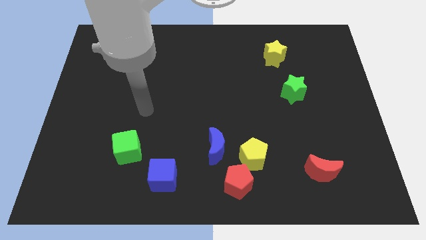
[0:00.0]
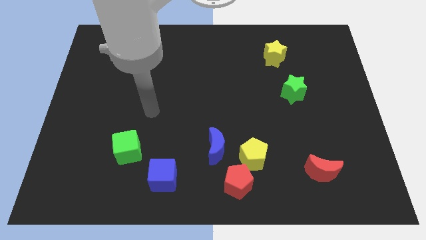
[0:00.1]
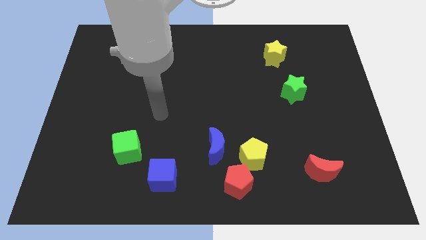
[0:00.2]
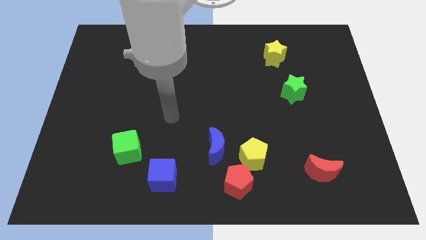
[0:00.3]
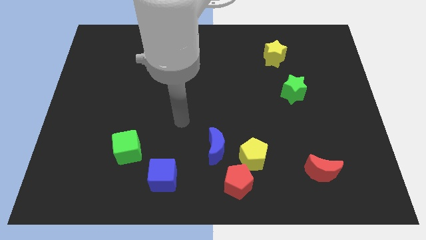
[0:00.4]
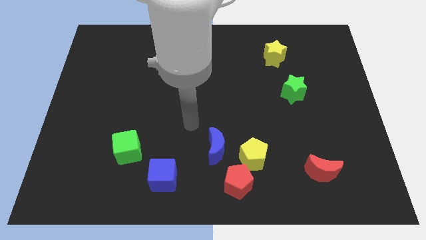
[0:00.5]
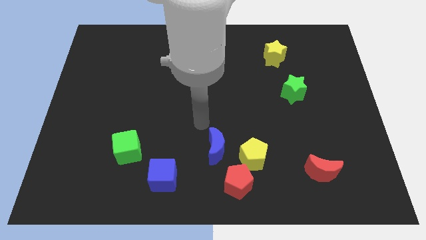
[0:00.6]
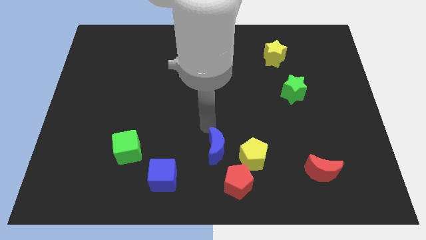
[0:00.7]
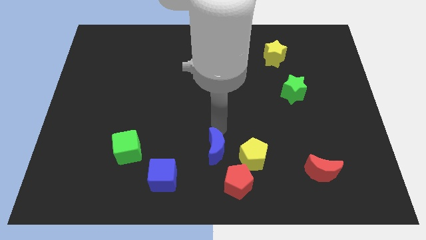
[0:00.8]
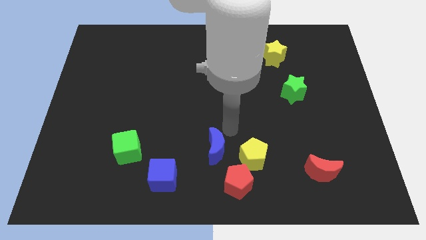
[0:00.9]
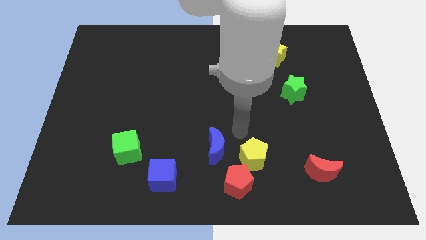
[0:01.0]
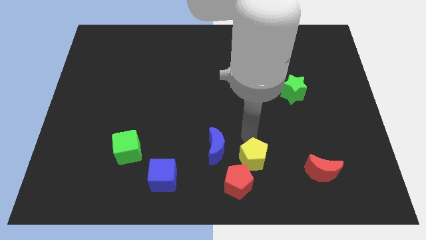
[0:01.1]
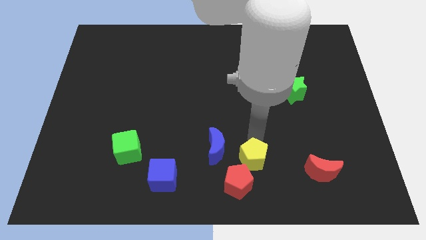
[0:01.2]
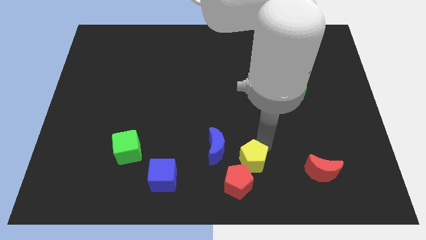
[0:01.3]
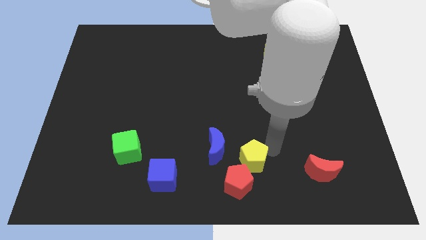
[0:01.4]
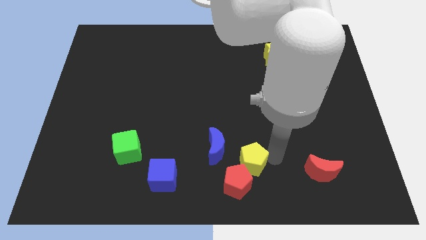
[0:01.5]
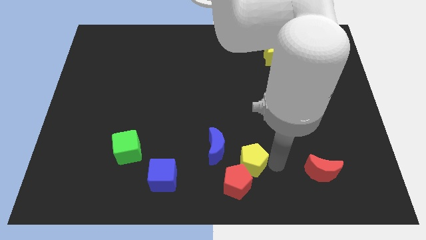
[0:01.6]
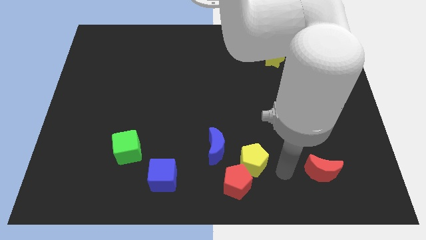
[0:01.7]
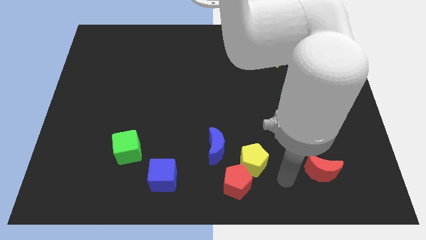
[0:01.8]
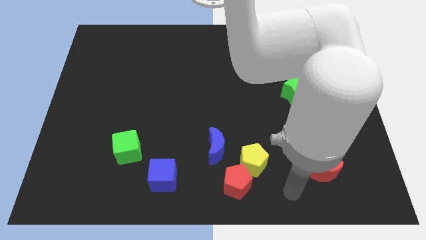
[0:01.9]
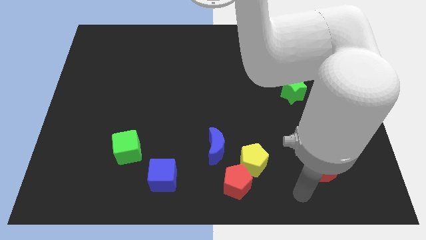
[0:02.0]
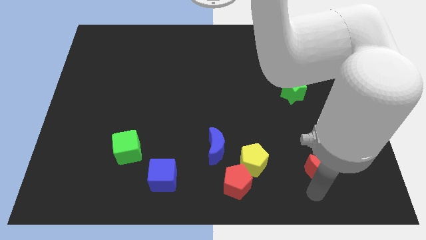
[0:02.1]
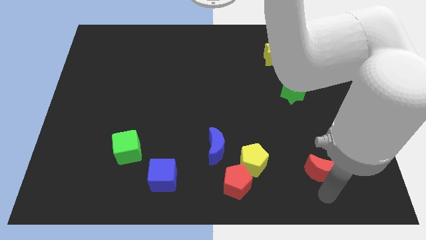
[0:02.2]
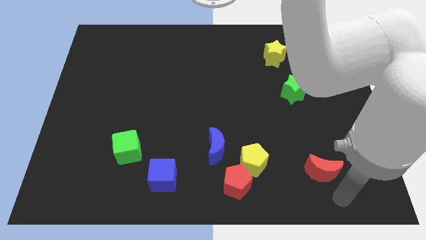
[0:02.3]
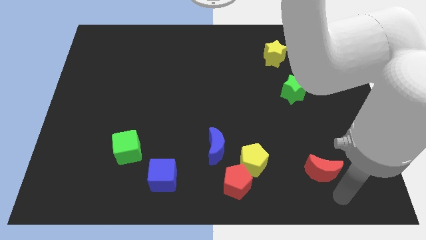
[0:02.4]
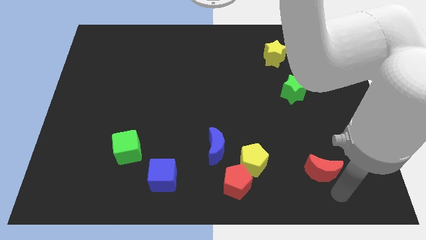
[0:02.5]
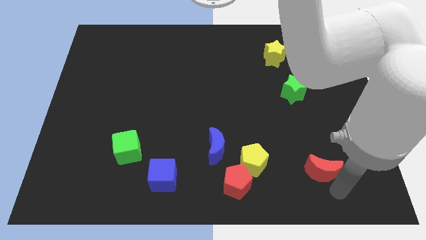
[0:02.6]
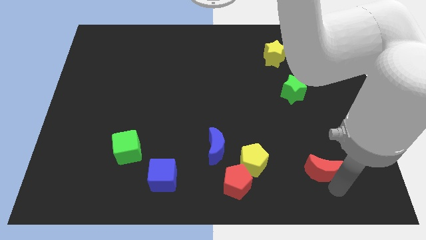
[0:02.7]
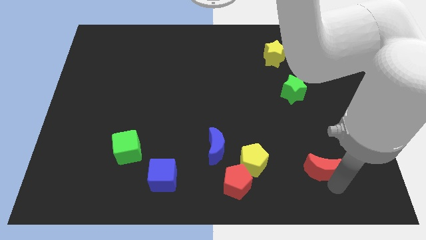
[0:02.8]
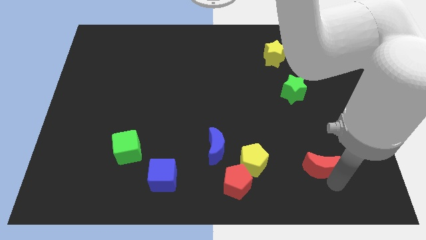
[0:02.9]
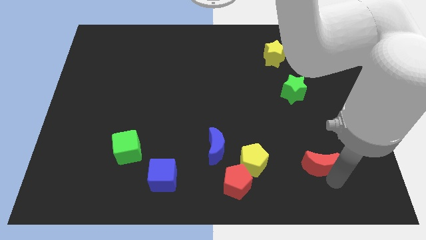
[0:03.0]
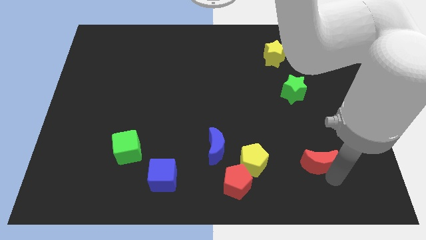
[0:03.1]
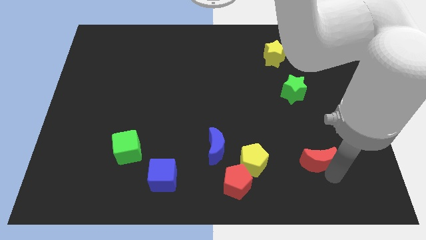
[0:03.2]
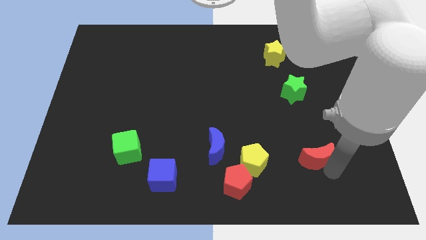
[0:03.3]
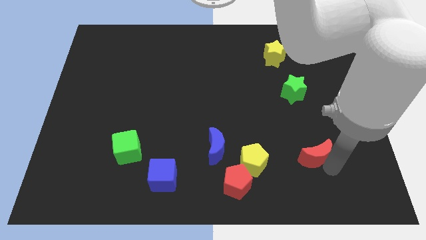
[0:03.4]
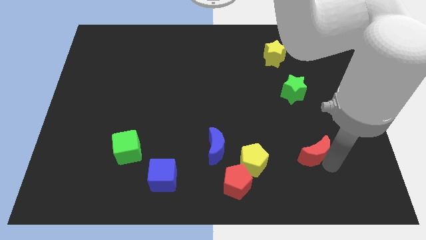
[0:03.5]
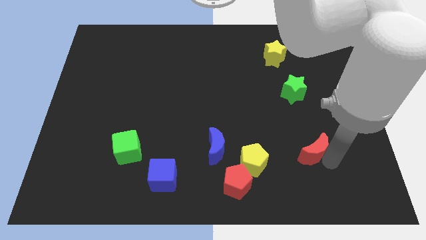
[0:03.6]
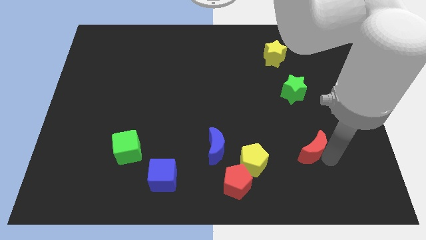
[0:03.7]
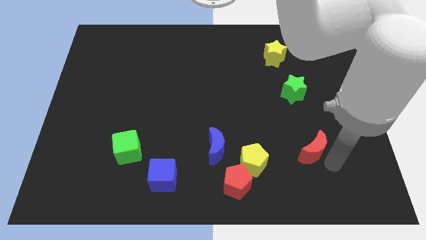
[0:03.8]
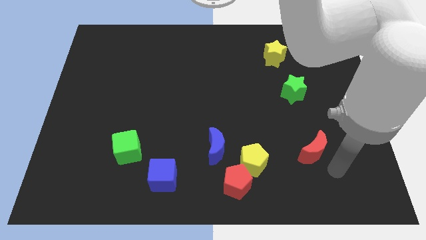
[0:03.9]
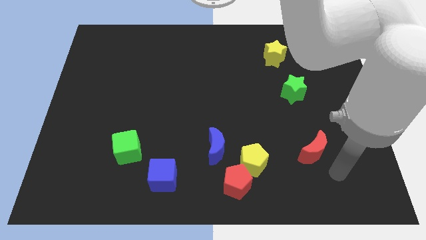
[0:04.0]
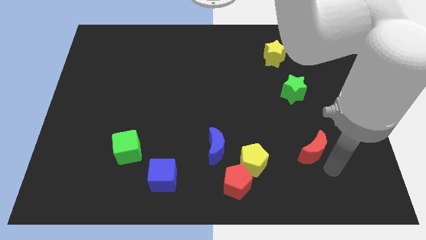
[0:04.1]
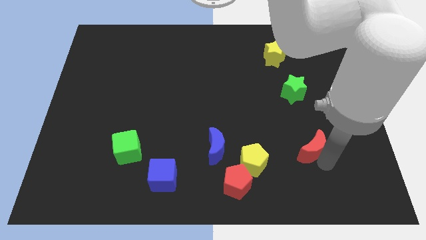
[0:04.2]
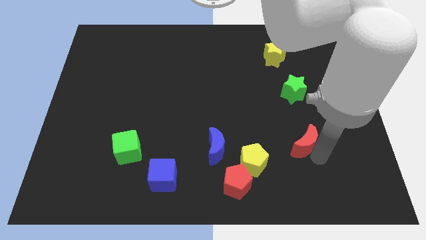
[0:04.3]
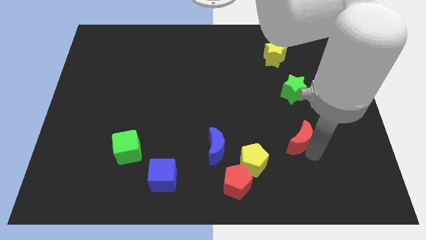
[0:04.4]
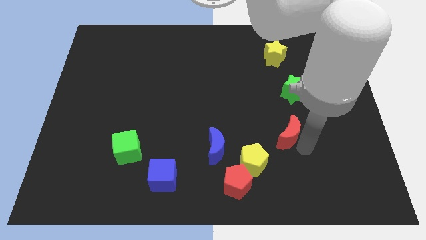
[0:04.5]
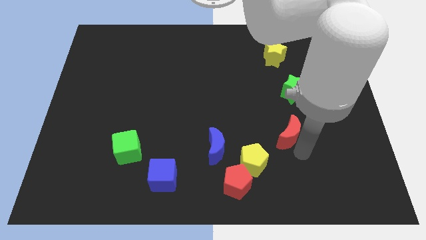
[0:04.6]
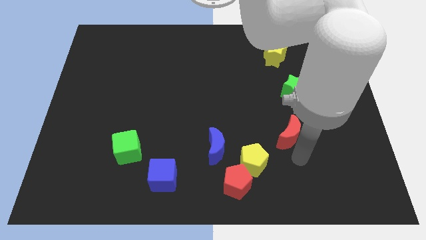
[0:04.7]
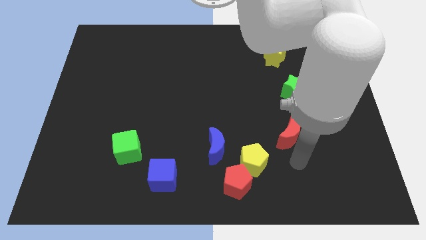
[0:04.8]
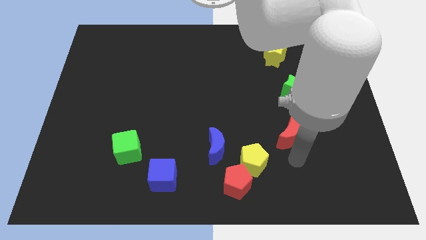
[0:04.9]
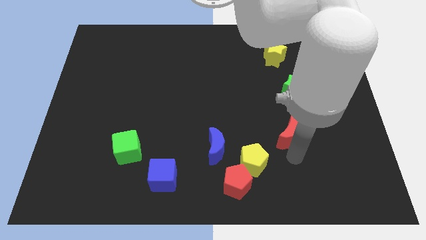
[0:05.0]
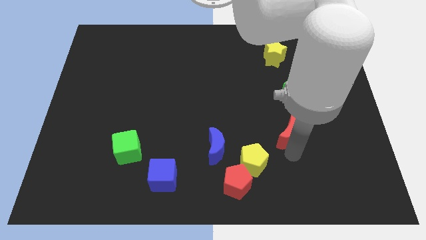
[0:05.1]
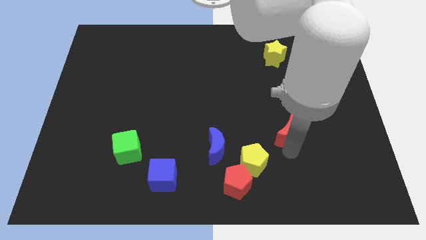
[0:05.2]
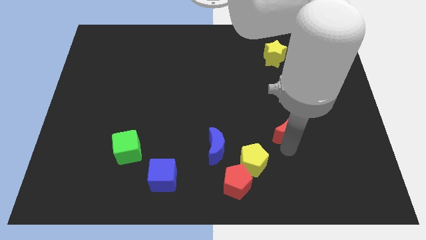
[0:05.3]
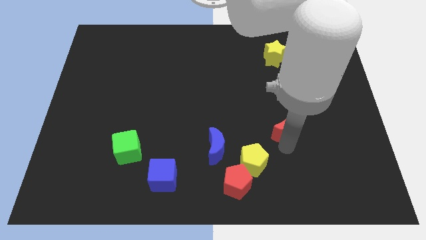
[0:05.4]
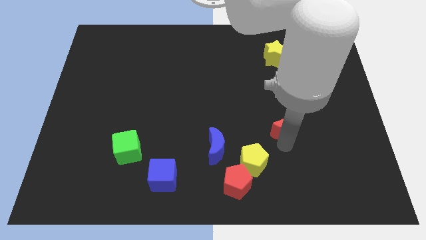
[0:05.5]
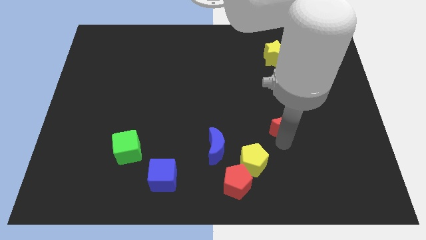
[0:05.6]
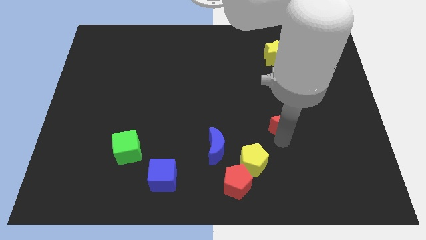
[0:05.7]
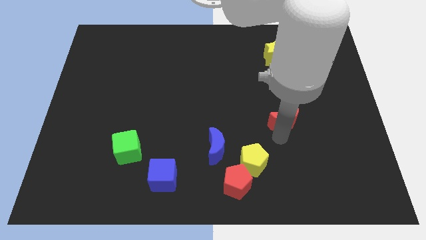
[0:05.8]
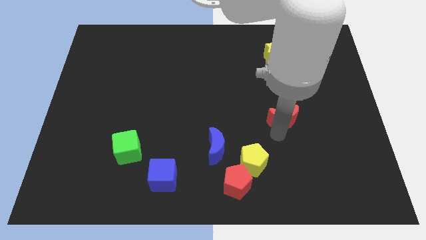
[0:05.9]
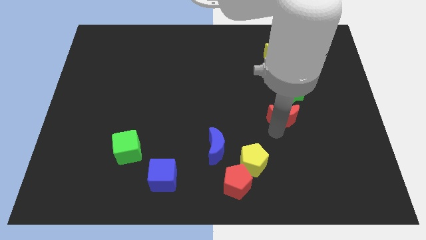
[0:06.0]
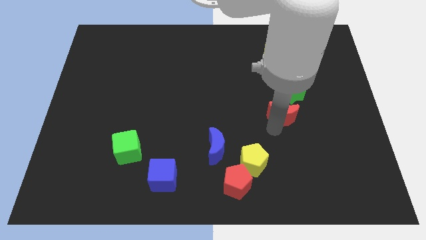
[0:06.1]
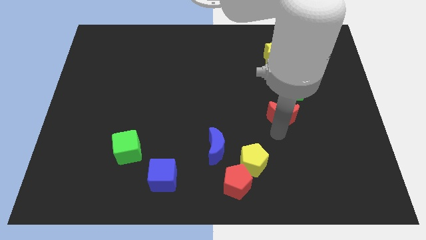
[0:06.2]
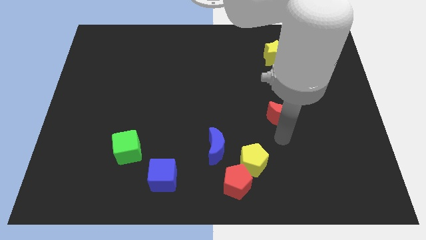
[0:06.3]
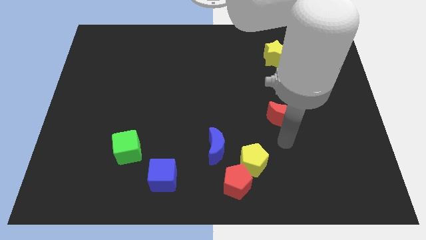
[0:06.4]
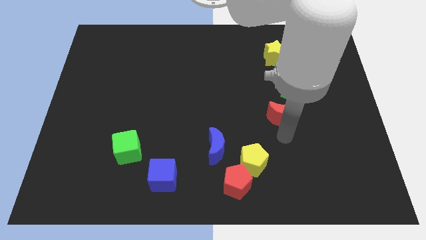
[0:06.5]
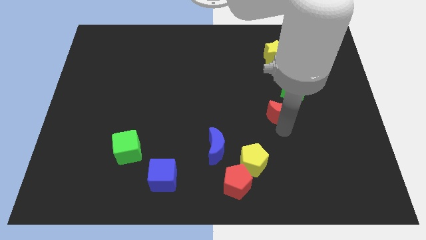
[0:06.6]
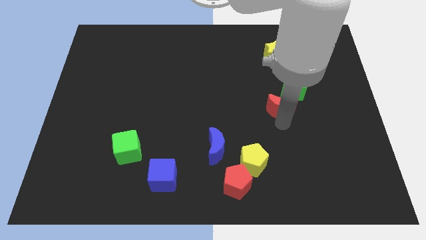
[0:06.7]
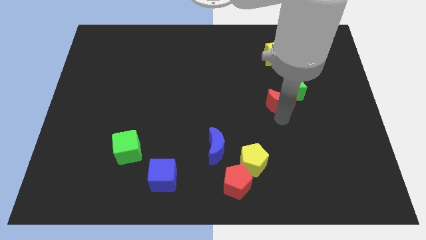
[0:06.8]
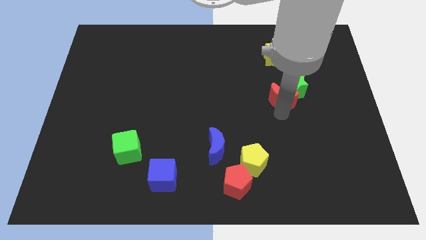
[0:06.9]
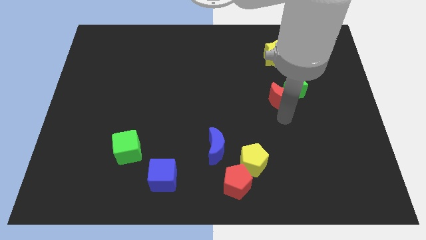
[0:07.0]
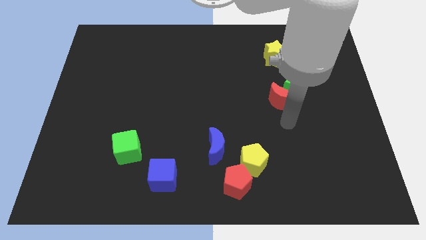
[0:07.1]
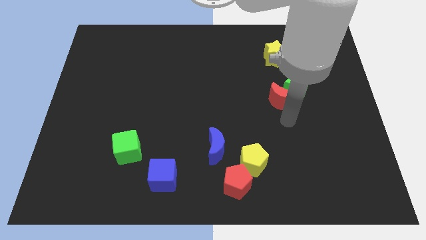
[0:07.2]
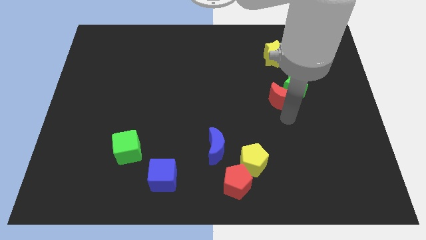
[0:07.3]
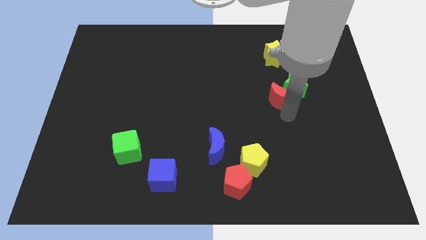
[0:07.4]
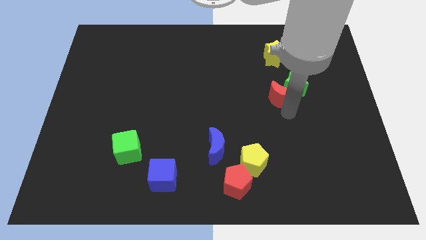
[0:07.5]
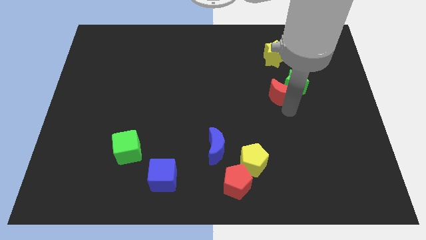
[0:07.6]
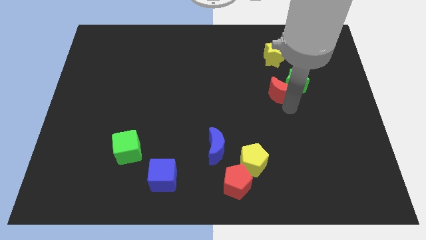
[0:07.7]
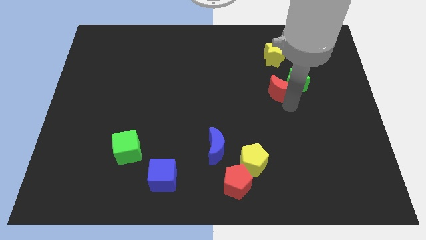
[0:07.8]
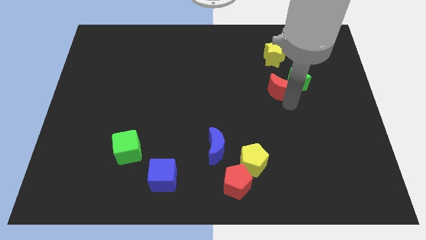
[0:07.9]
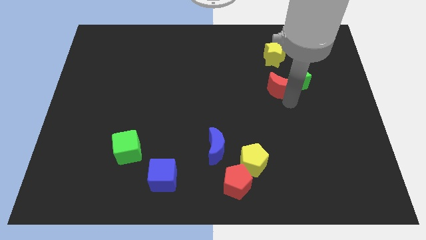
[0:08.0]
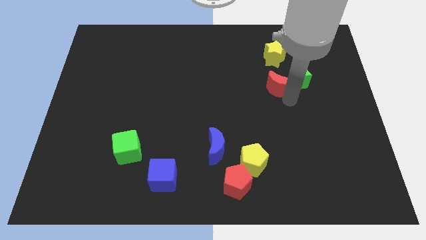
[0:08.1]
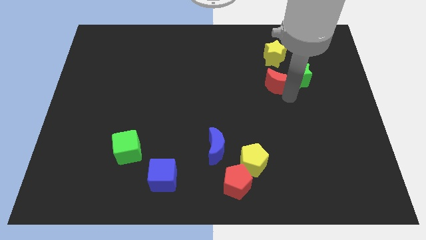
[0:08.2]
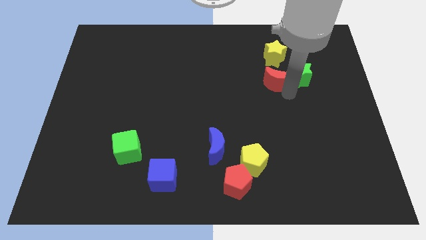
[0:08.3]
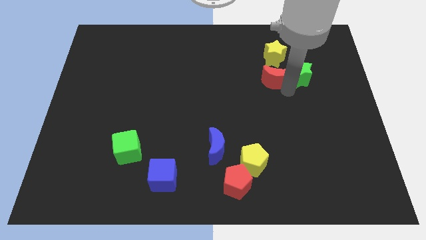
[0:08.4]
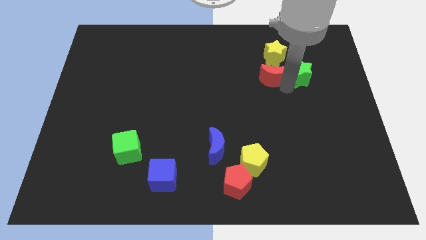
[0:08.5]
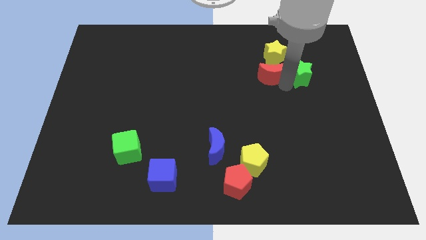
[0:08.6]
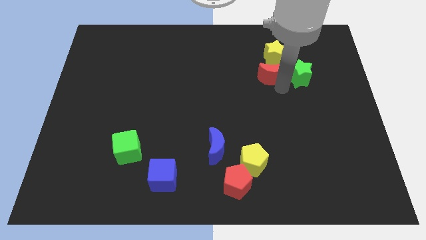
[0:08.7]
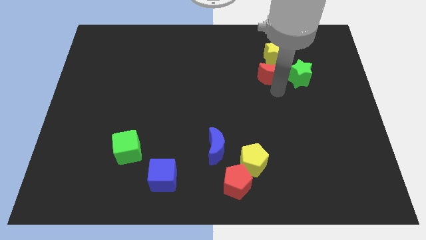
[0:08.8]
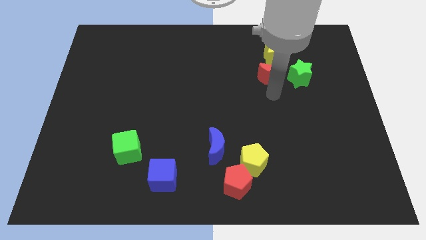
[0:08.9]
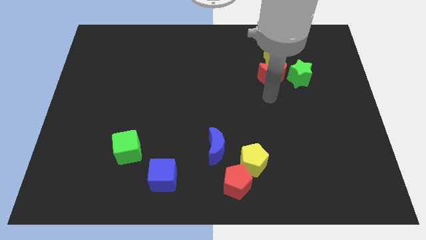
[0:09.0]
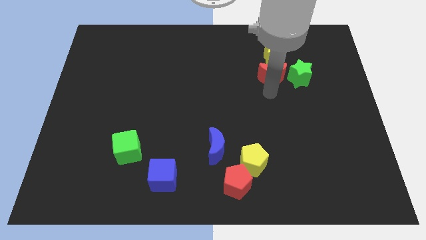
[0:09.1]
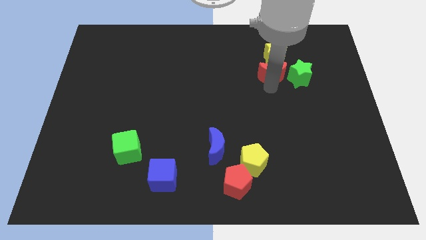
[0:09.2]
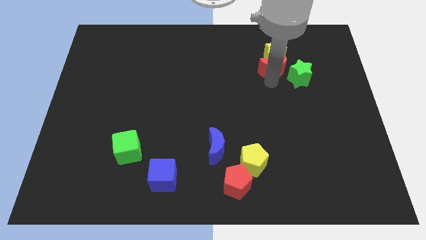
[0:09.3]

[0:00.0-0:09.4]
put the red moon close to the yellow star
